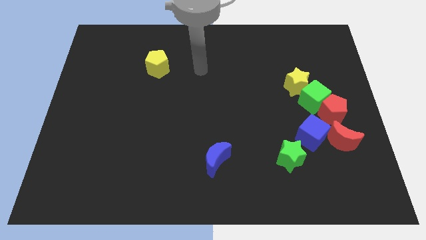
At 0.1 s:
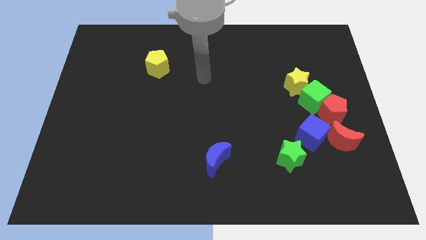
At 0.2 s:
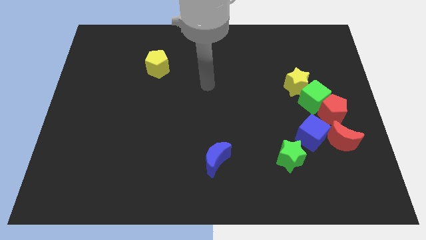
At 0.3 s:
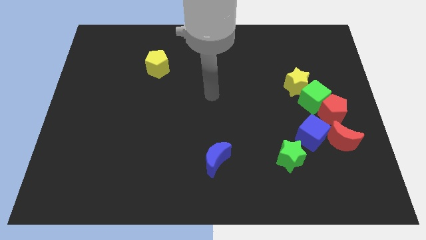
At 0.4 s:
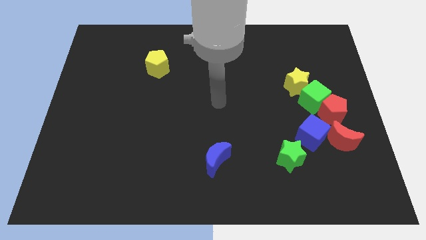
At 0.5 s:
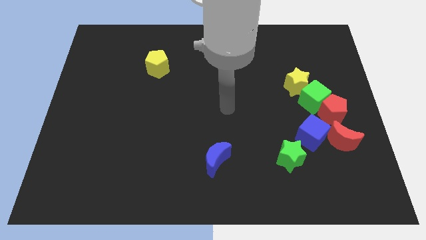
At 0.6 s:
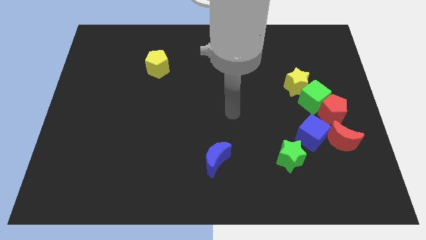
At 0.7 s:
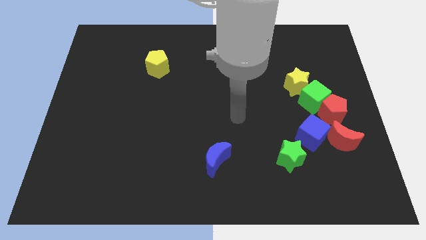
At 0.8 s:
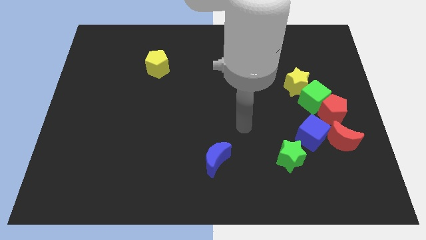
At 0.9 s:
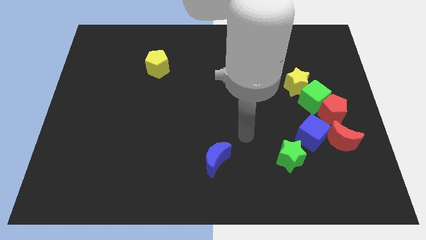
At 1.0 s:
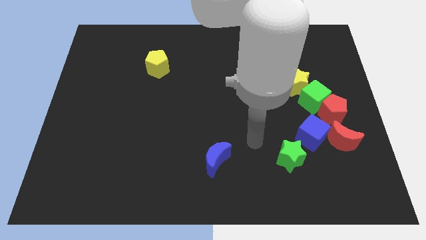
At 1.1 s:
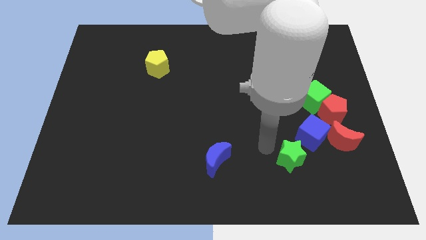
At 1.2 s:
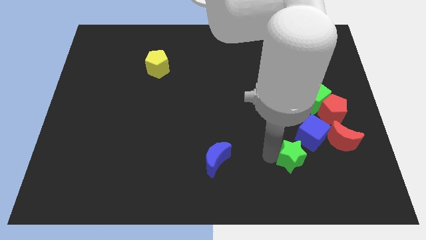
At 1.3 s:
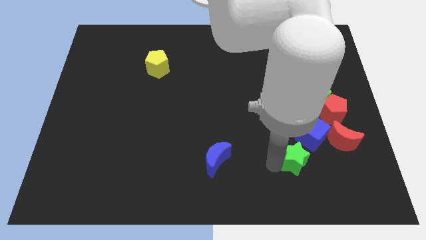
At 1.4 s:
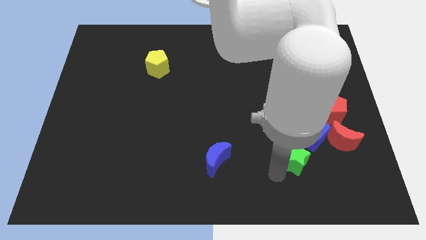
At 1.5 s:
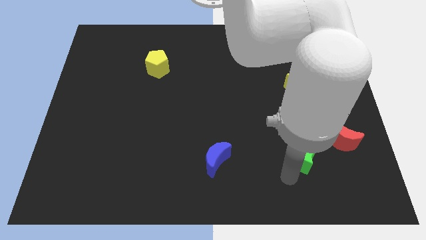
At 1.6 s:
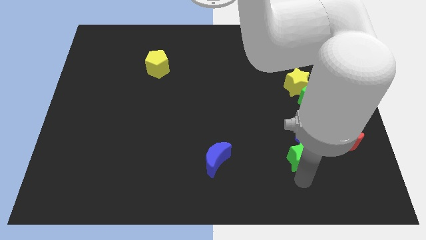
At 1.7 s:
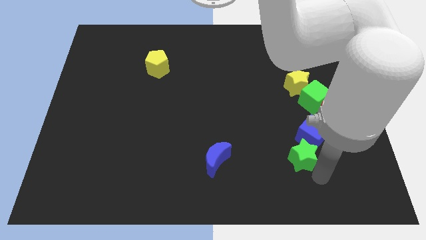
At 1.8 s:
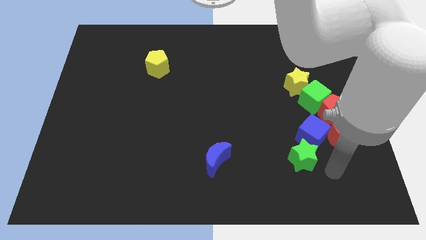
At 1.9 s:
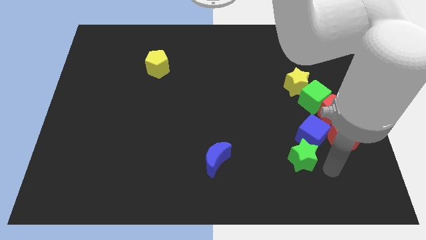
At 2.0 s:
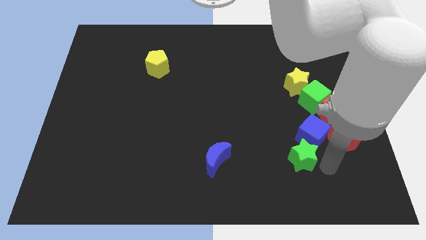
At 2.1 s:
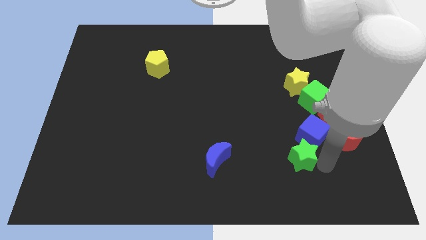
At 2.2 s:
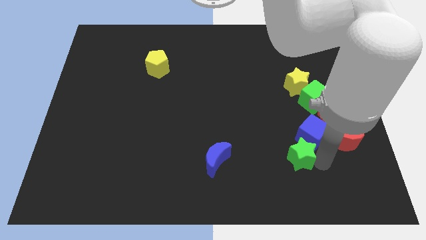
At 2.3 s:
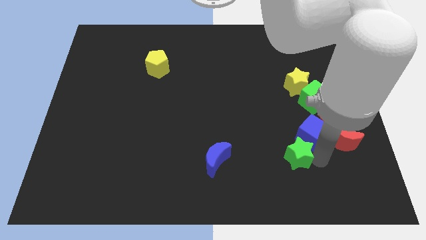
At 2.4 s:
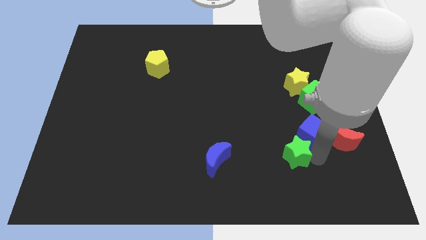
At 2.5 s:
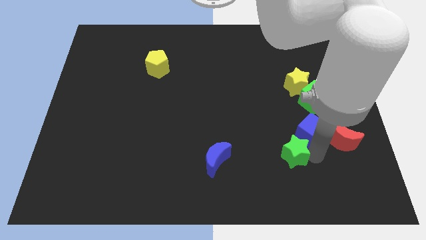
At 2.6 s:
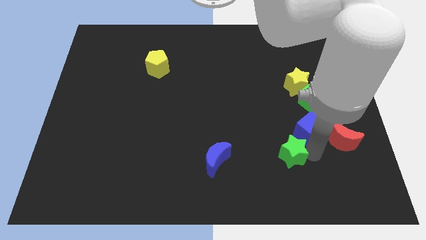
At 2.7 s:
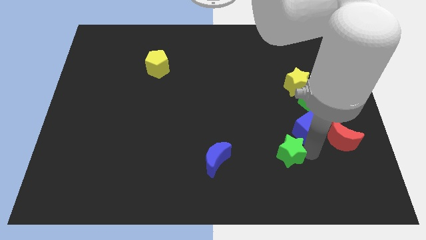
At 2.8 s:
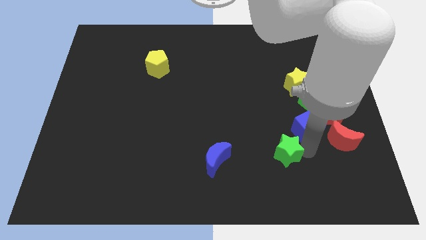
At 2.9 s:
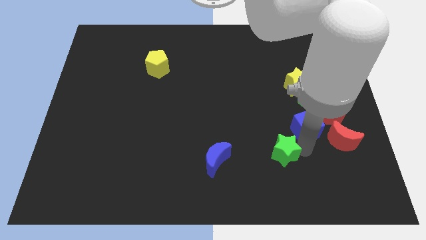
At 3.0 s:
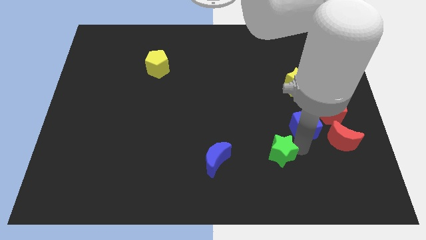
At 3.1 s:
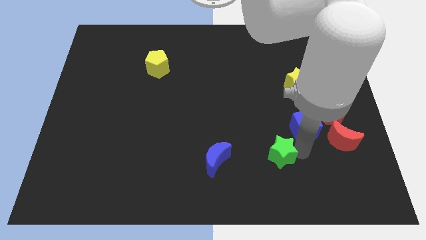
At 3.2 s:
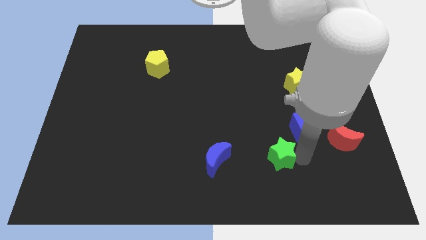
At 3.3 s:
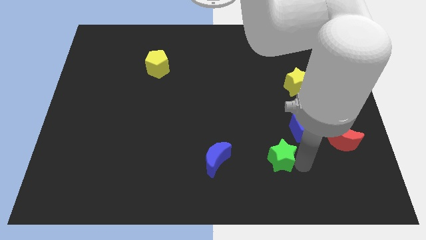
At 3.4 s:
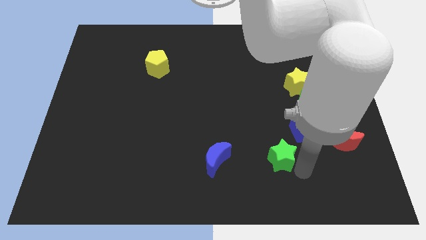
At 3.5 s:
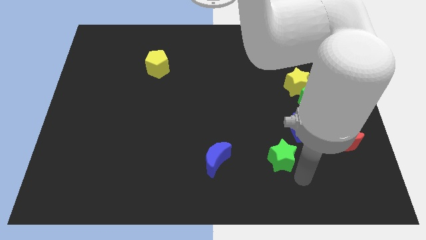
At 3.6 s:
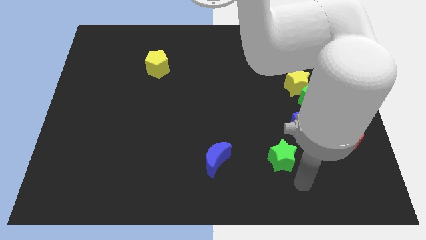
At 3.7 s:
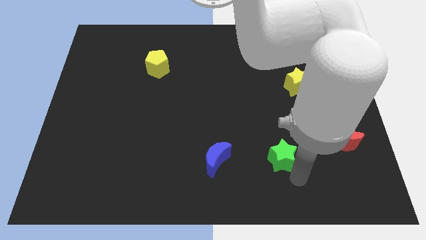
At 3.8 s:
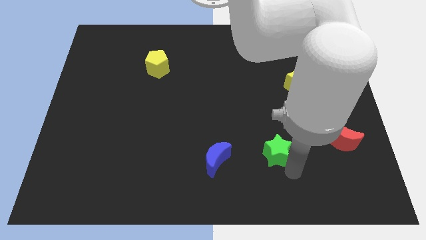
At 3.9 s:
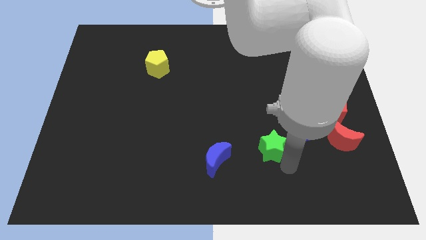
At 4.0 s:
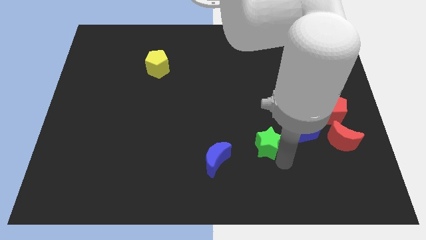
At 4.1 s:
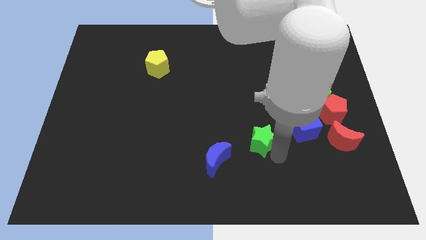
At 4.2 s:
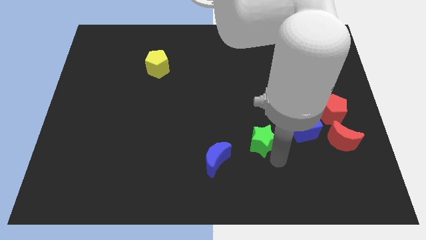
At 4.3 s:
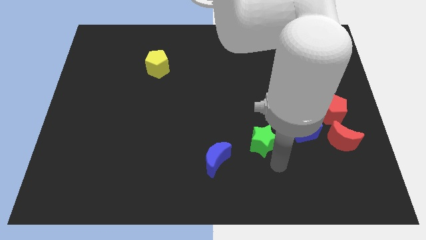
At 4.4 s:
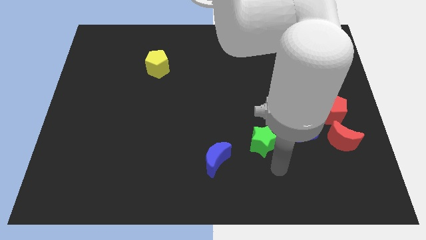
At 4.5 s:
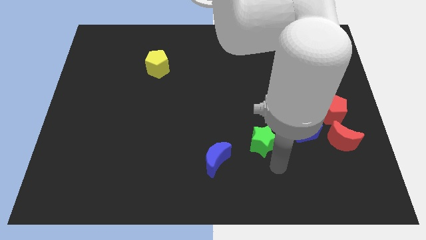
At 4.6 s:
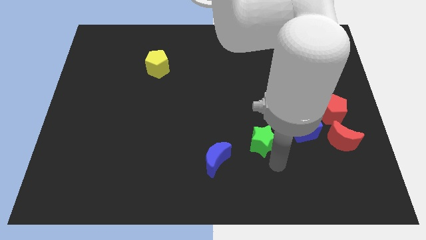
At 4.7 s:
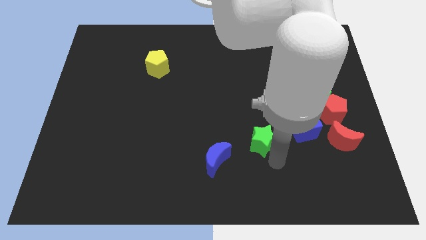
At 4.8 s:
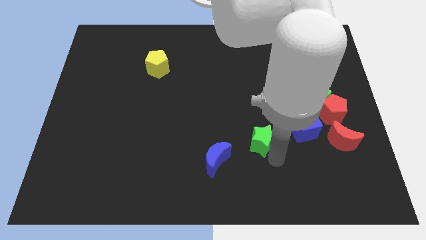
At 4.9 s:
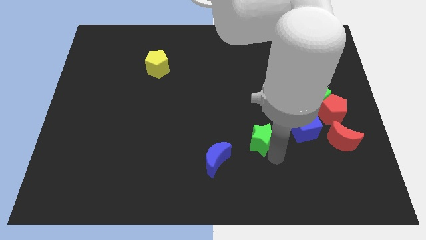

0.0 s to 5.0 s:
slightly slide the green star up and to the left diagonally

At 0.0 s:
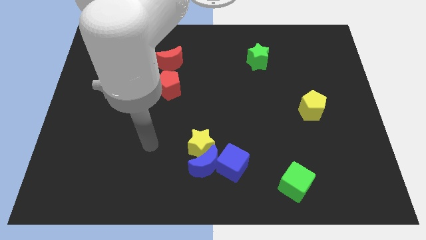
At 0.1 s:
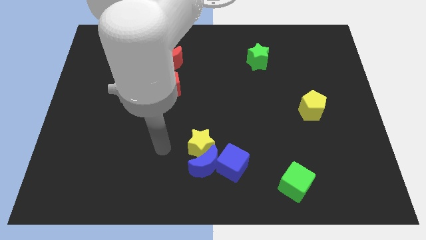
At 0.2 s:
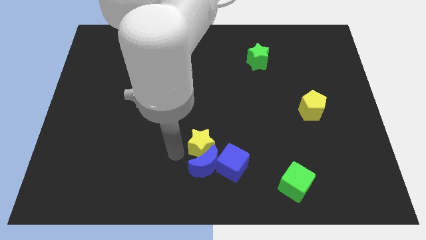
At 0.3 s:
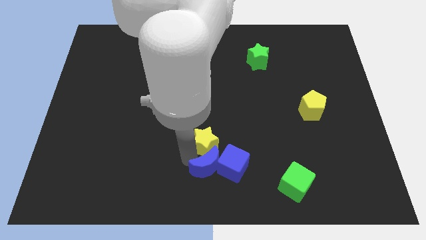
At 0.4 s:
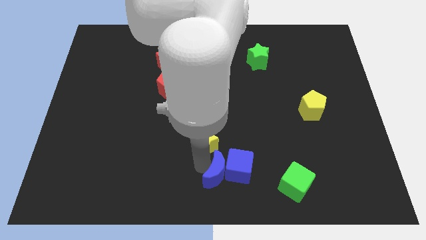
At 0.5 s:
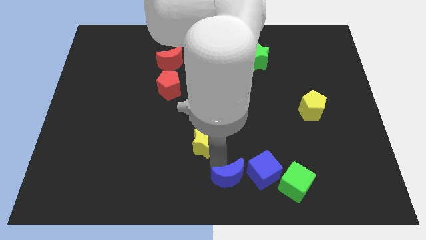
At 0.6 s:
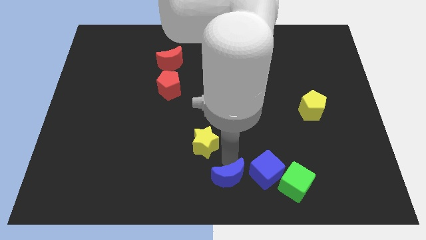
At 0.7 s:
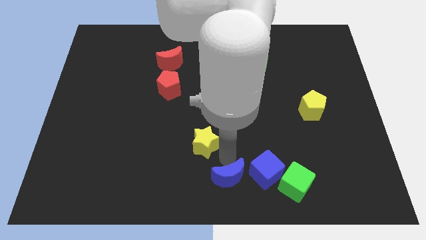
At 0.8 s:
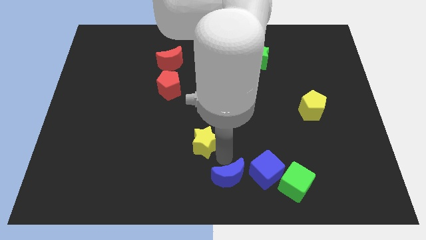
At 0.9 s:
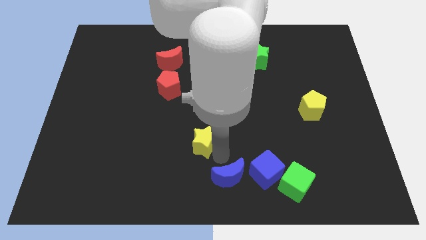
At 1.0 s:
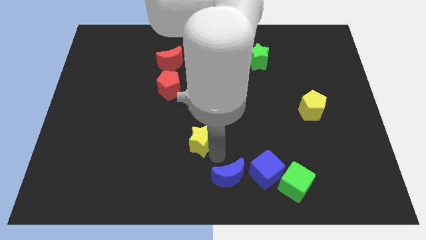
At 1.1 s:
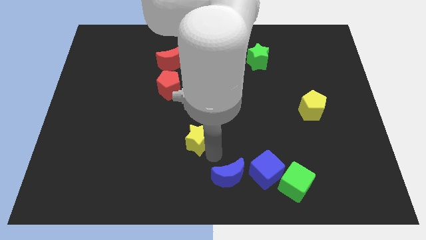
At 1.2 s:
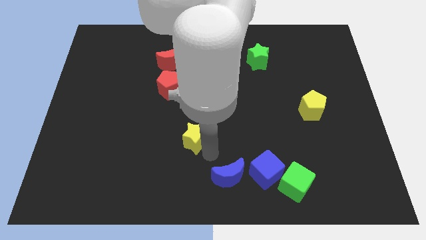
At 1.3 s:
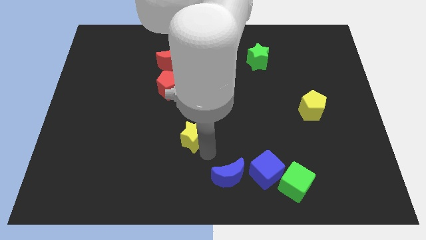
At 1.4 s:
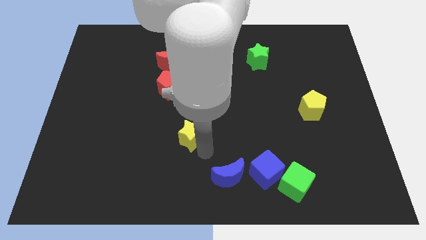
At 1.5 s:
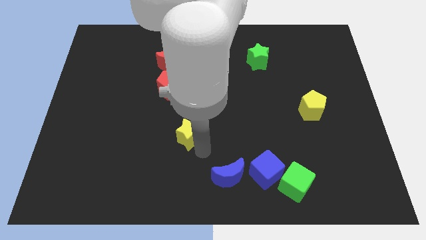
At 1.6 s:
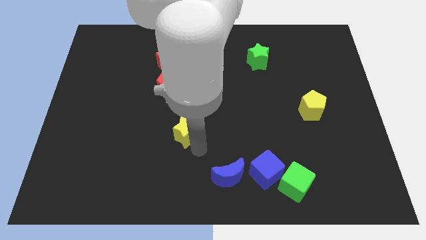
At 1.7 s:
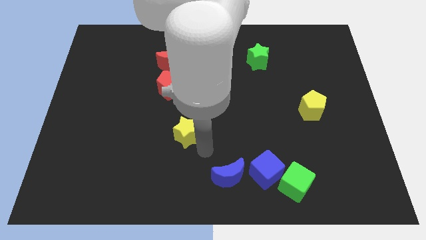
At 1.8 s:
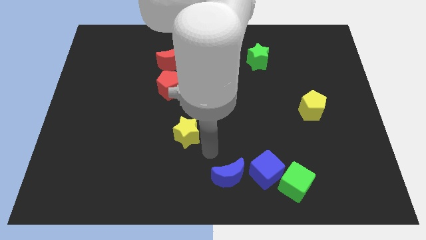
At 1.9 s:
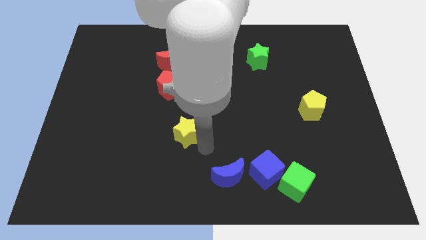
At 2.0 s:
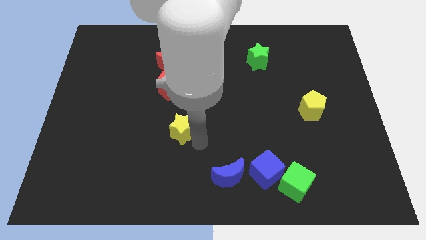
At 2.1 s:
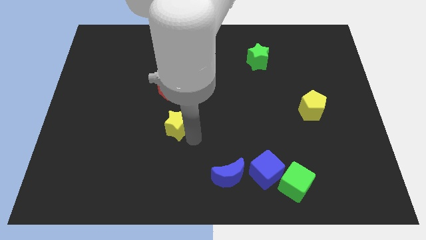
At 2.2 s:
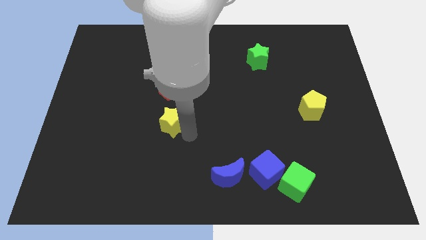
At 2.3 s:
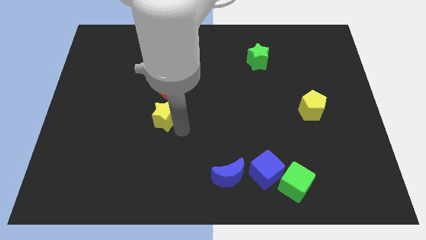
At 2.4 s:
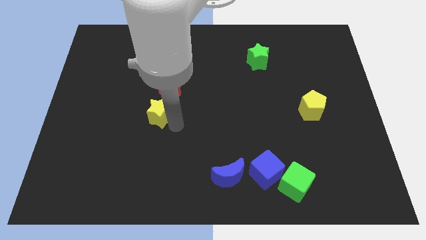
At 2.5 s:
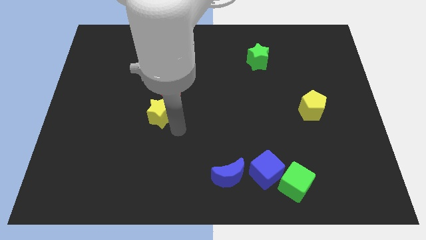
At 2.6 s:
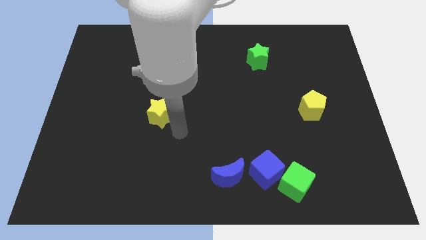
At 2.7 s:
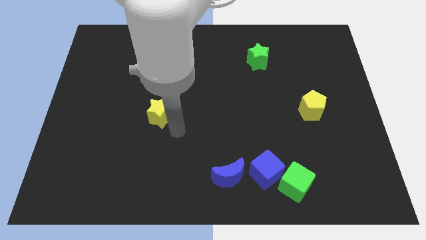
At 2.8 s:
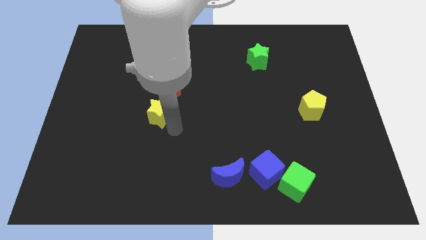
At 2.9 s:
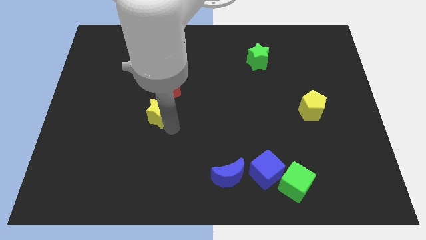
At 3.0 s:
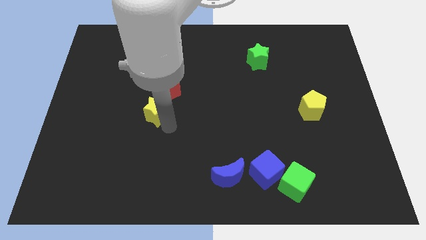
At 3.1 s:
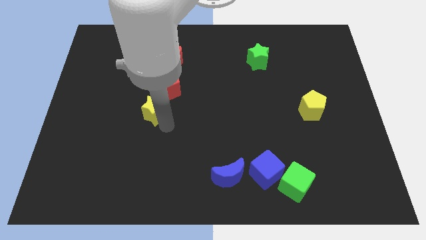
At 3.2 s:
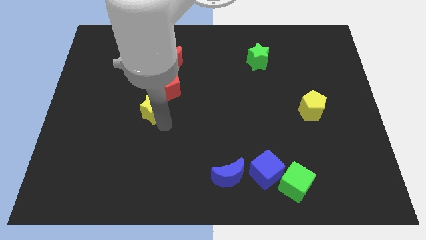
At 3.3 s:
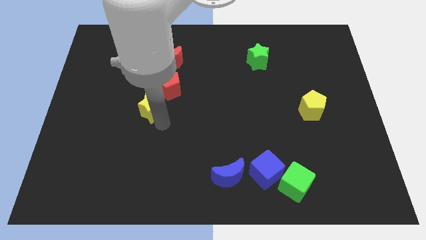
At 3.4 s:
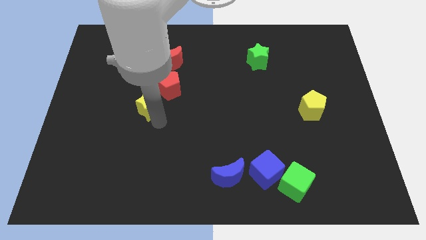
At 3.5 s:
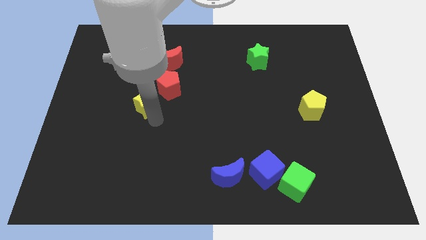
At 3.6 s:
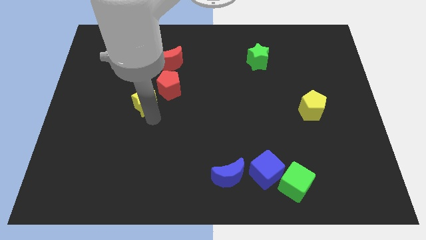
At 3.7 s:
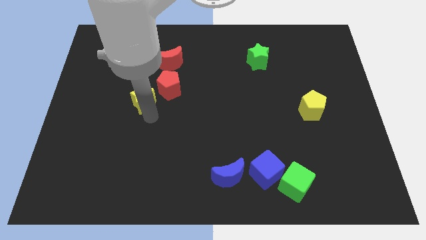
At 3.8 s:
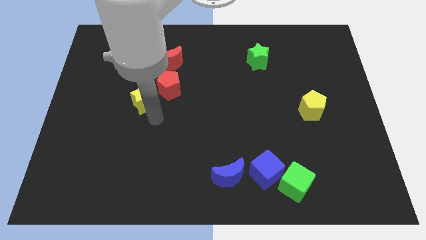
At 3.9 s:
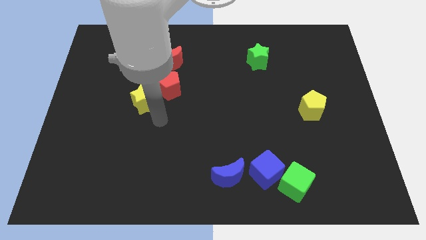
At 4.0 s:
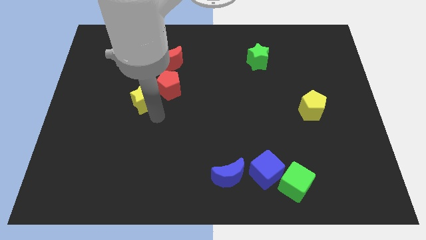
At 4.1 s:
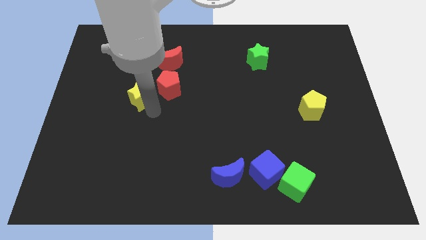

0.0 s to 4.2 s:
push the yellow star upwards and then left
